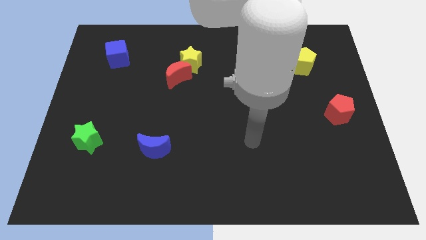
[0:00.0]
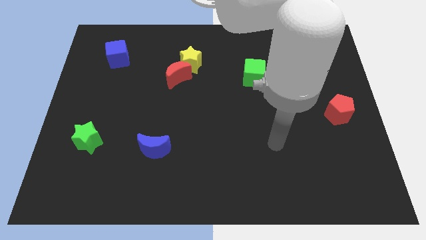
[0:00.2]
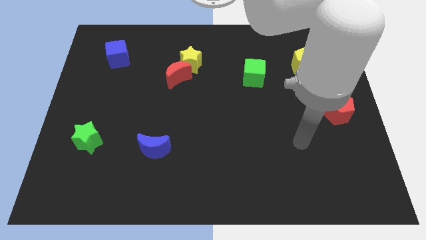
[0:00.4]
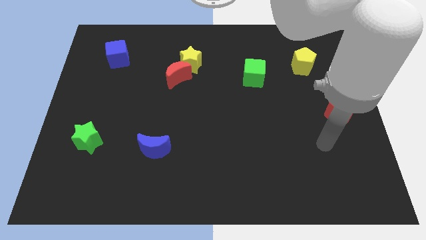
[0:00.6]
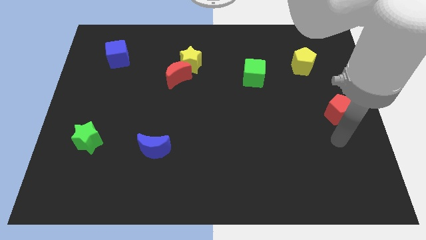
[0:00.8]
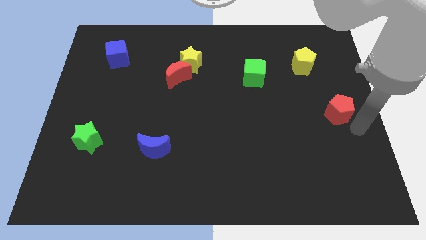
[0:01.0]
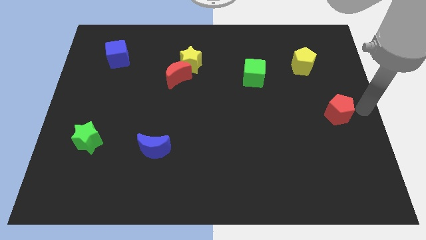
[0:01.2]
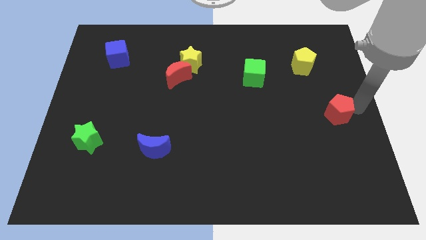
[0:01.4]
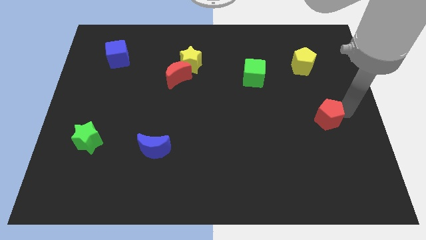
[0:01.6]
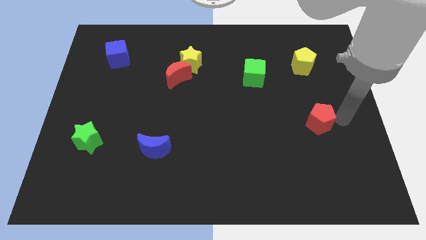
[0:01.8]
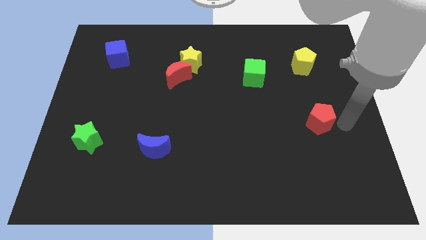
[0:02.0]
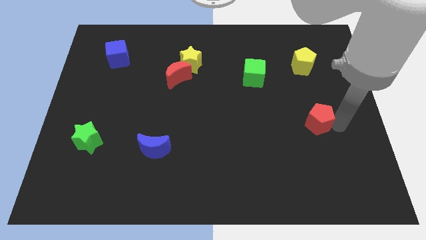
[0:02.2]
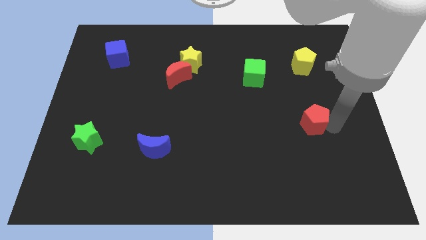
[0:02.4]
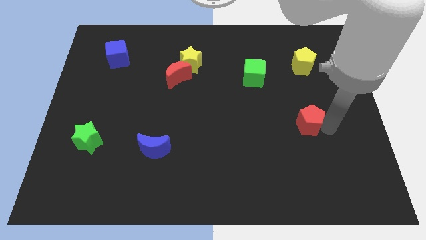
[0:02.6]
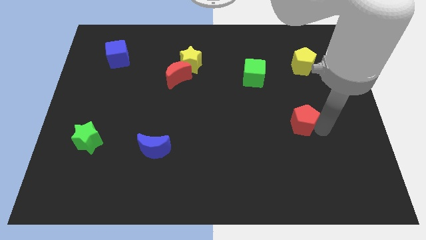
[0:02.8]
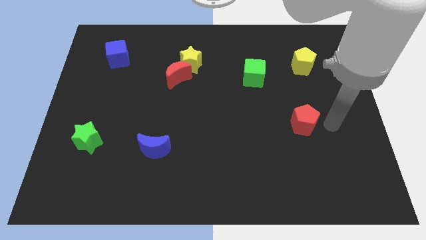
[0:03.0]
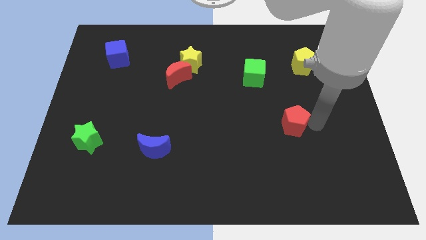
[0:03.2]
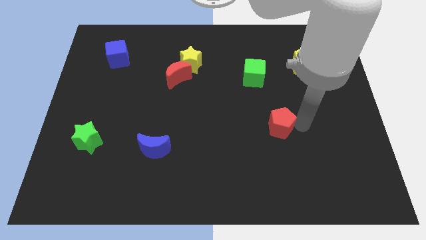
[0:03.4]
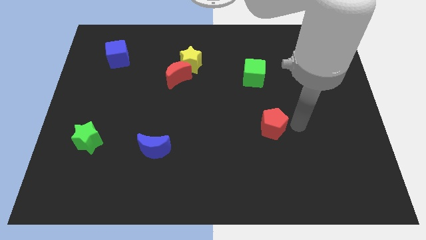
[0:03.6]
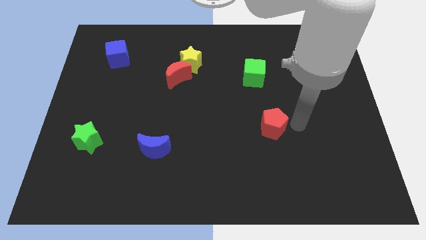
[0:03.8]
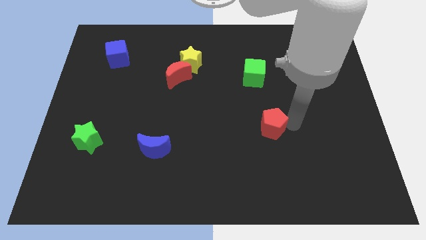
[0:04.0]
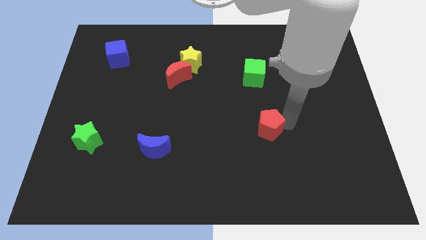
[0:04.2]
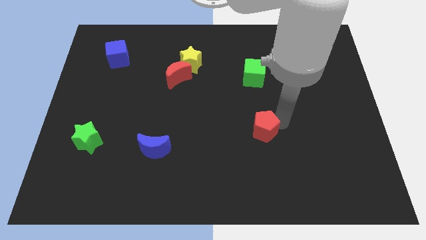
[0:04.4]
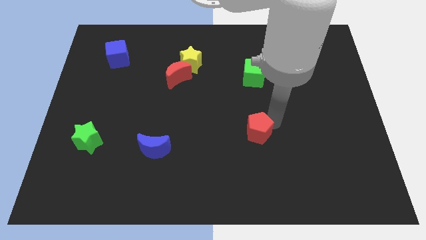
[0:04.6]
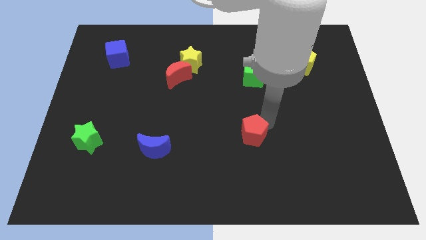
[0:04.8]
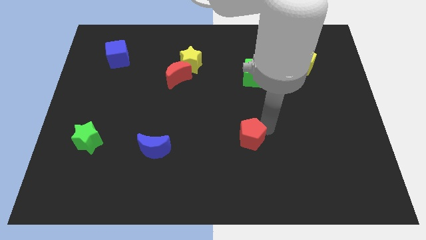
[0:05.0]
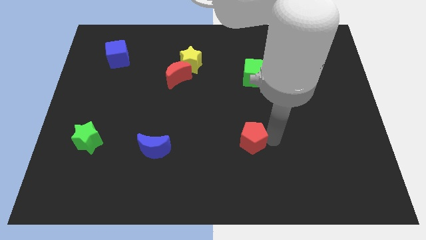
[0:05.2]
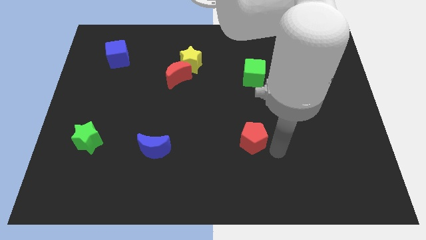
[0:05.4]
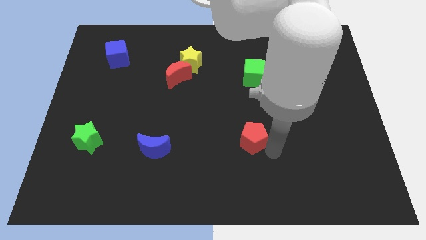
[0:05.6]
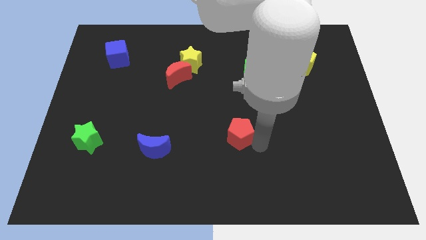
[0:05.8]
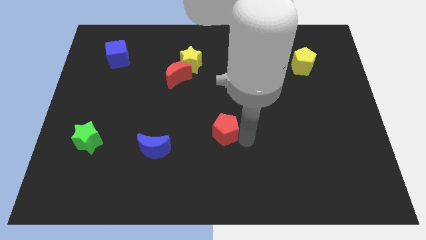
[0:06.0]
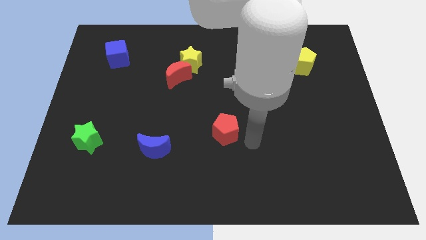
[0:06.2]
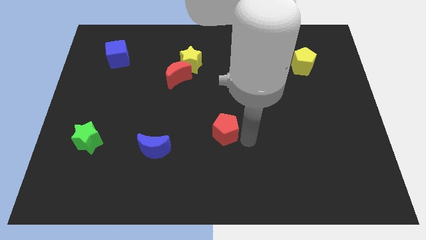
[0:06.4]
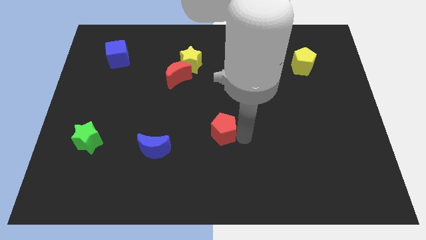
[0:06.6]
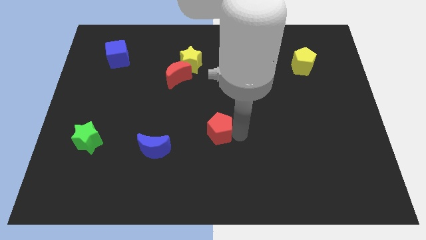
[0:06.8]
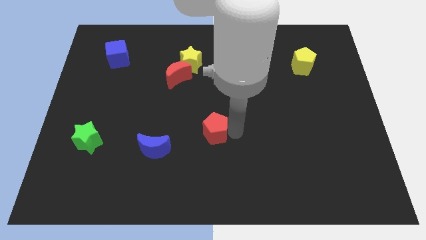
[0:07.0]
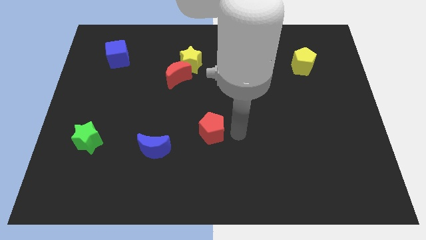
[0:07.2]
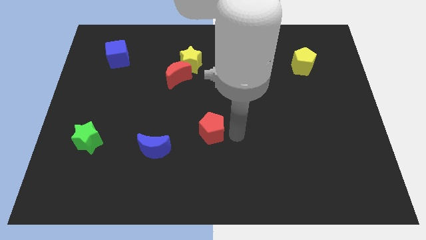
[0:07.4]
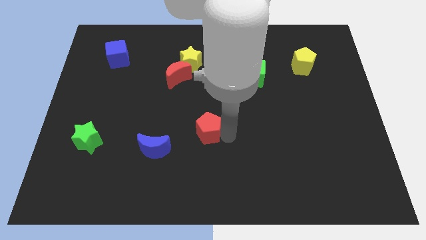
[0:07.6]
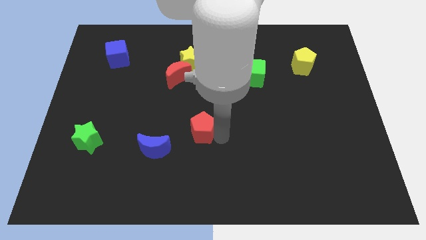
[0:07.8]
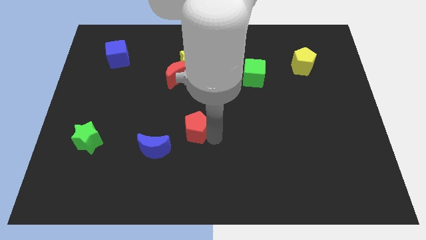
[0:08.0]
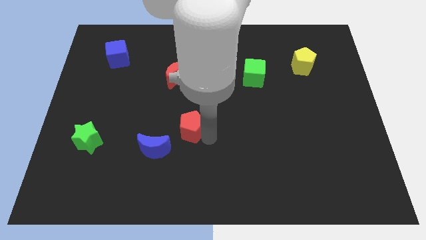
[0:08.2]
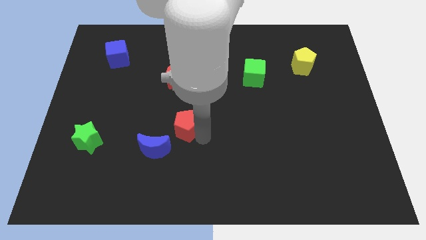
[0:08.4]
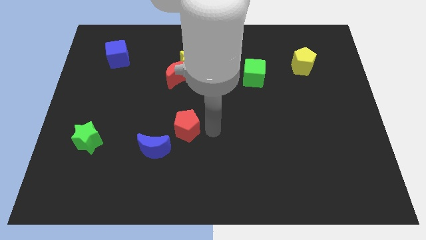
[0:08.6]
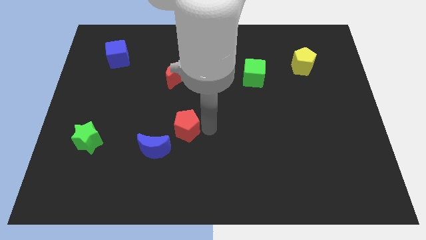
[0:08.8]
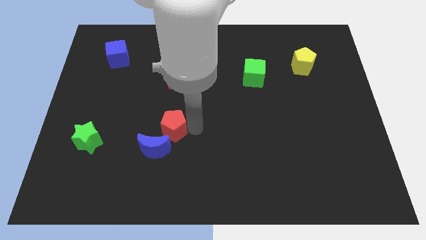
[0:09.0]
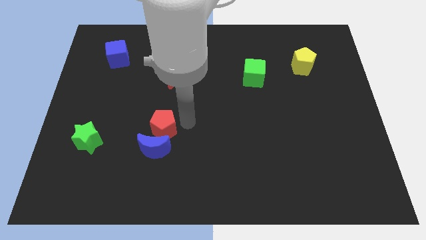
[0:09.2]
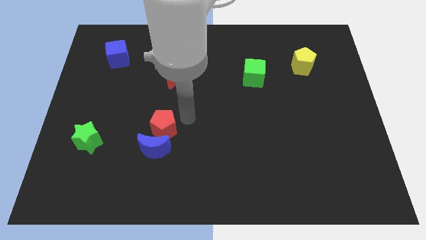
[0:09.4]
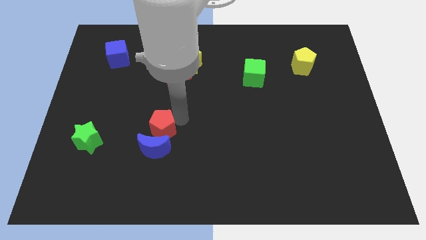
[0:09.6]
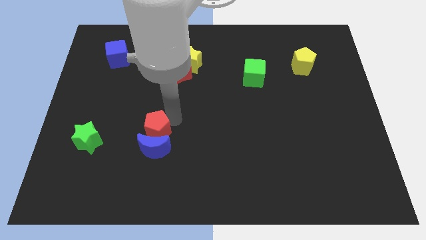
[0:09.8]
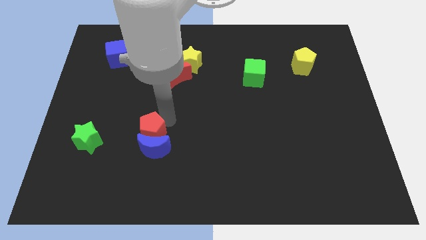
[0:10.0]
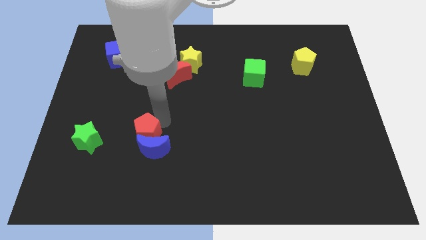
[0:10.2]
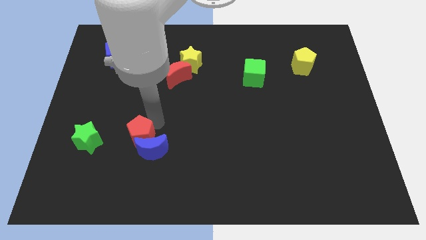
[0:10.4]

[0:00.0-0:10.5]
move the red pentagon to the left of the blue moon

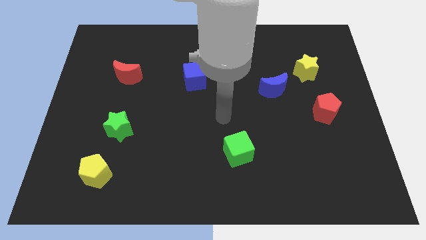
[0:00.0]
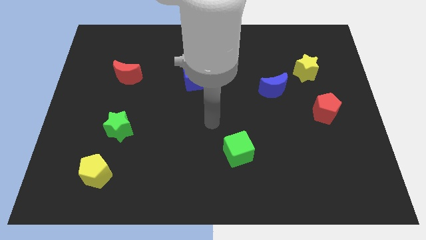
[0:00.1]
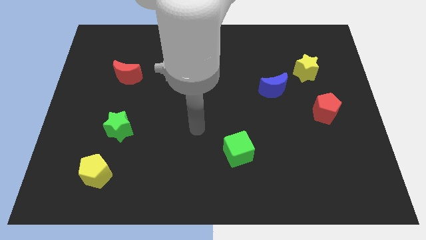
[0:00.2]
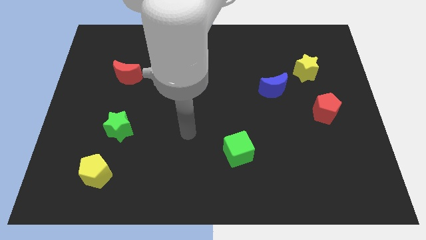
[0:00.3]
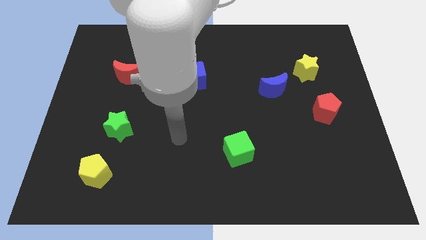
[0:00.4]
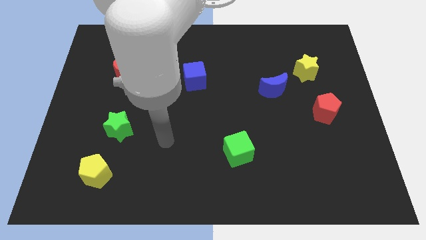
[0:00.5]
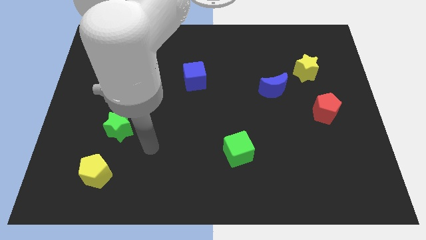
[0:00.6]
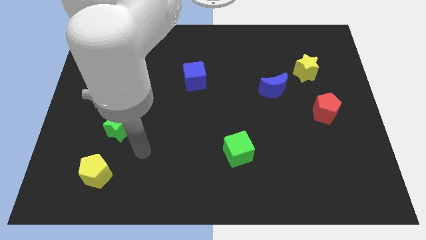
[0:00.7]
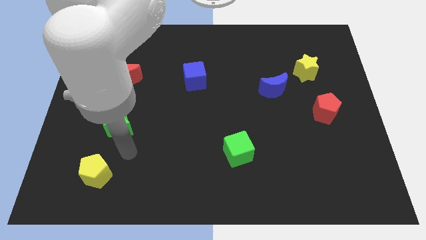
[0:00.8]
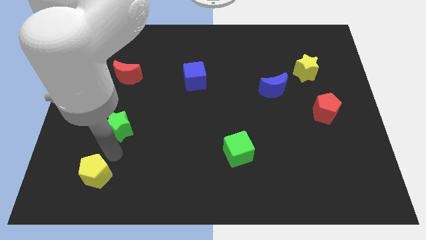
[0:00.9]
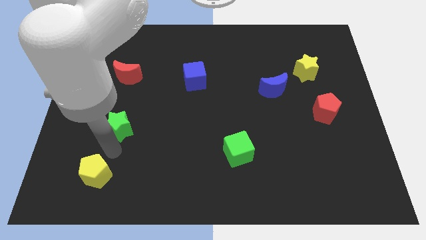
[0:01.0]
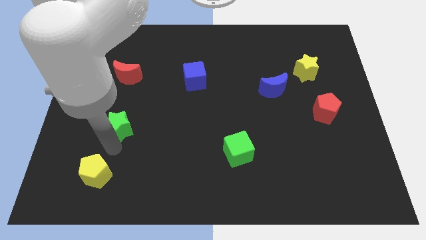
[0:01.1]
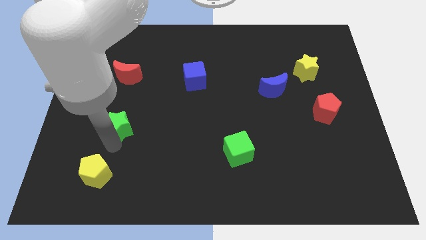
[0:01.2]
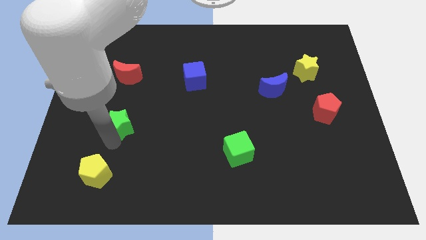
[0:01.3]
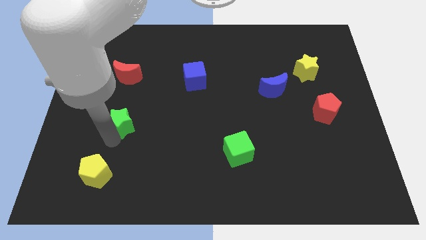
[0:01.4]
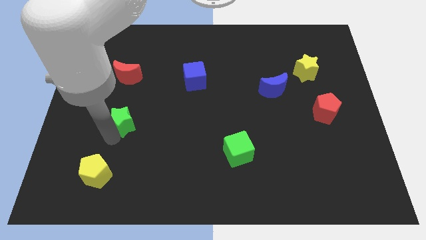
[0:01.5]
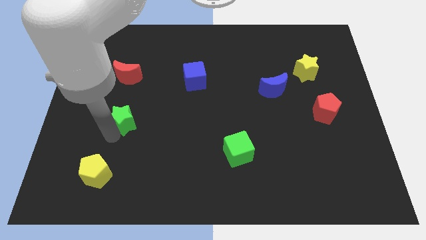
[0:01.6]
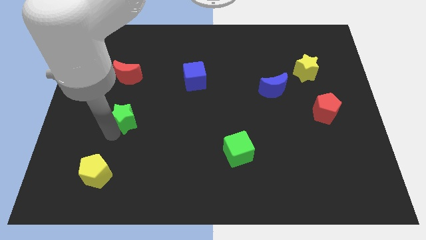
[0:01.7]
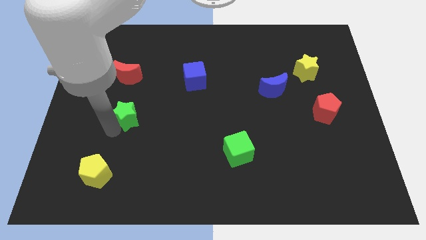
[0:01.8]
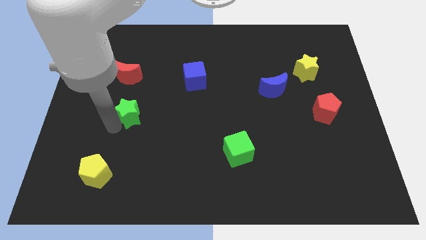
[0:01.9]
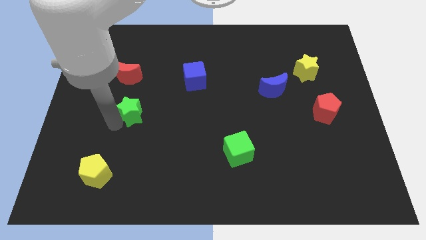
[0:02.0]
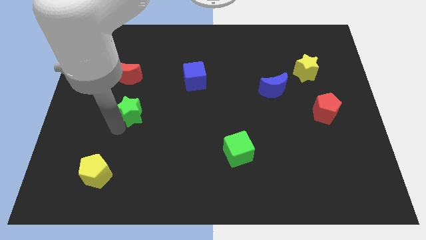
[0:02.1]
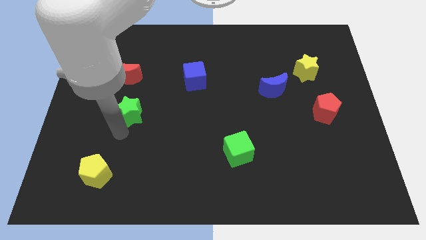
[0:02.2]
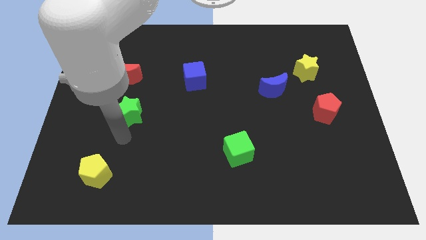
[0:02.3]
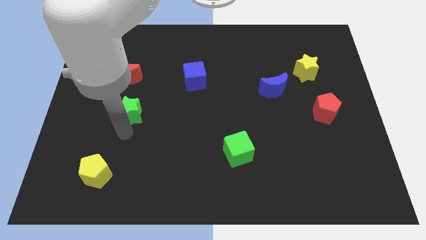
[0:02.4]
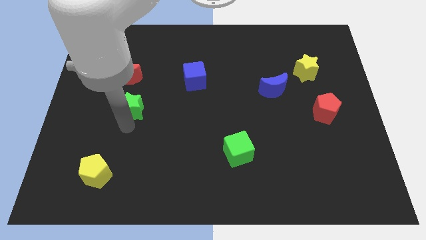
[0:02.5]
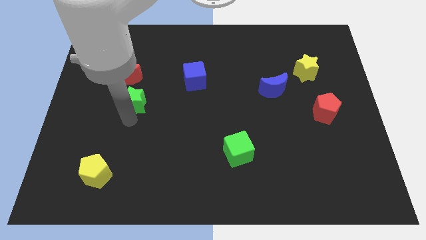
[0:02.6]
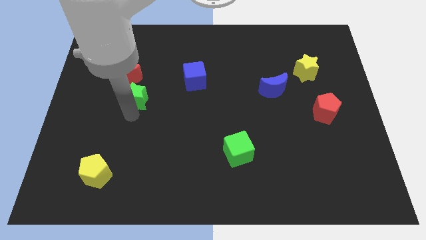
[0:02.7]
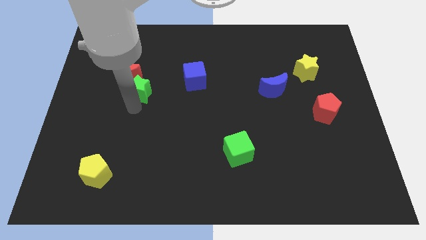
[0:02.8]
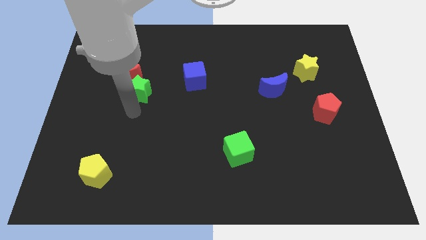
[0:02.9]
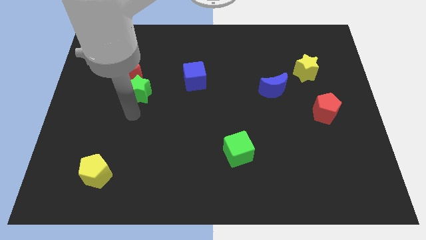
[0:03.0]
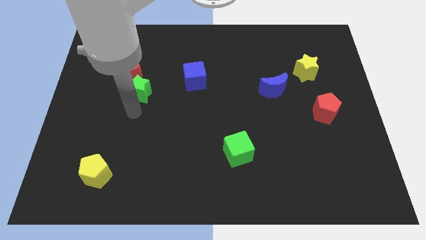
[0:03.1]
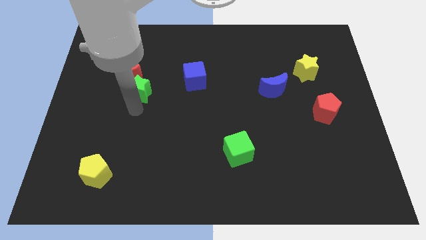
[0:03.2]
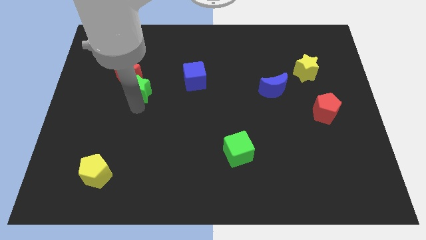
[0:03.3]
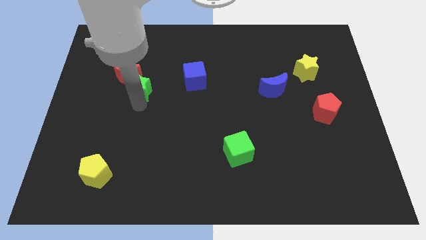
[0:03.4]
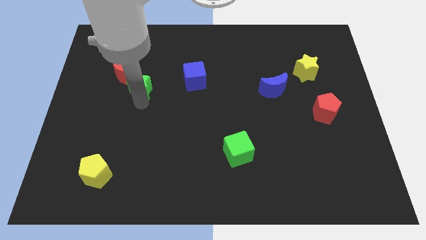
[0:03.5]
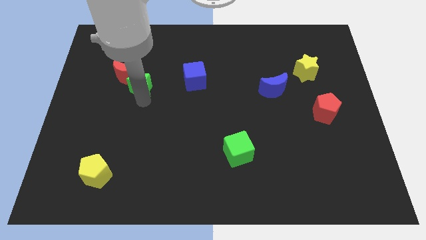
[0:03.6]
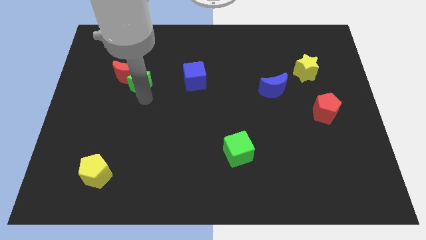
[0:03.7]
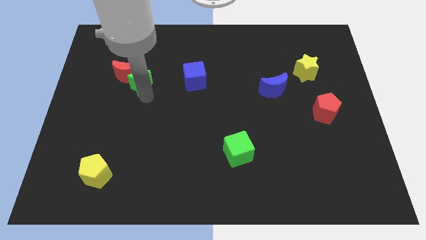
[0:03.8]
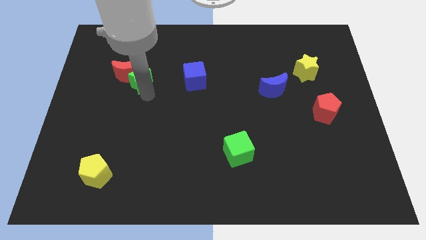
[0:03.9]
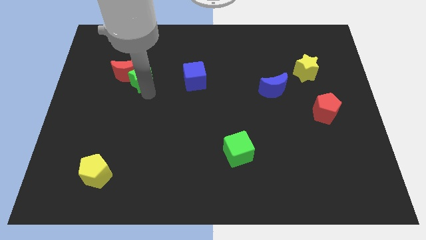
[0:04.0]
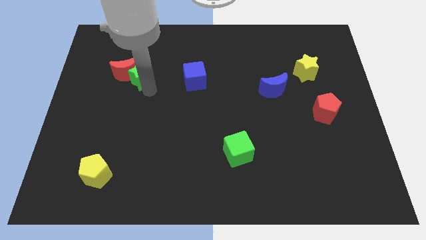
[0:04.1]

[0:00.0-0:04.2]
slide the green star diagonally up and to the right of the red moon
